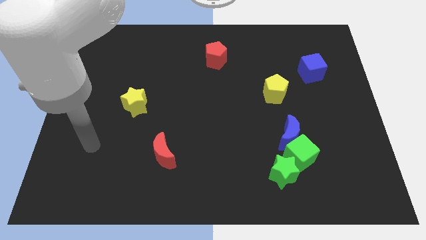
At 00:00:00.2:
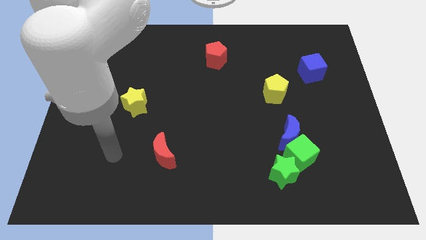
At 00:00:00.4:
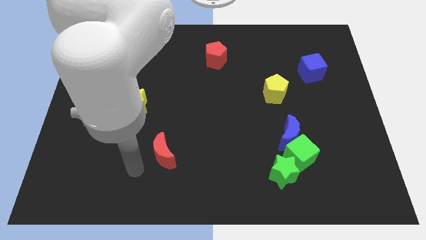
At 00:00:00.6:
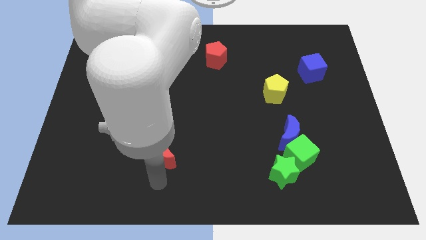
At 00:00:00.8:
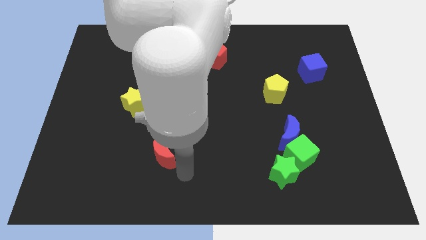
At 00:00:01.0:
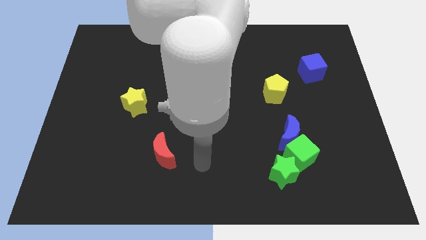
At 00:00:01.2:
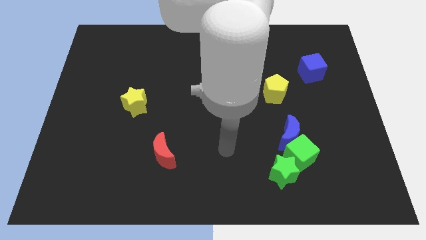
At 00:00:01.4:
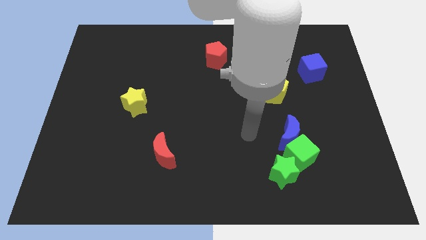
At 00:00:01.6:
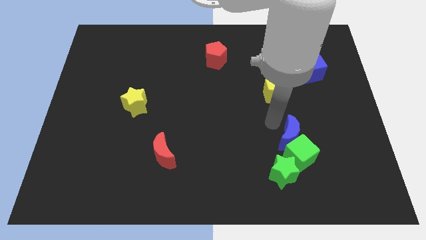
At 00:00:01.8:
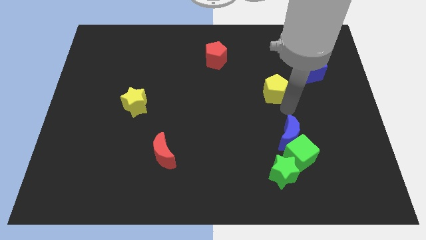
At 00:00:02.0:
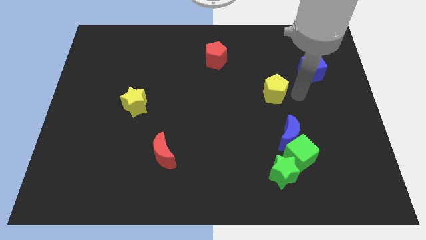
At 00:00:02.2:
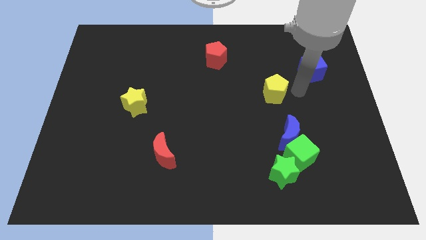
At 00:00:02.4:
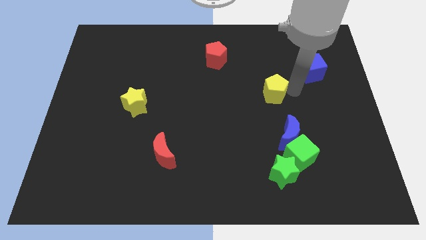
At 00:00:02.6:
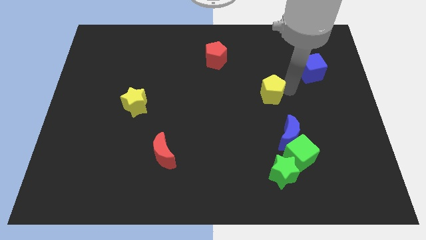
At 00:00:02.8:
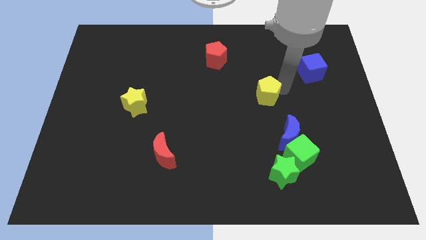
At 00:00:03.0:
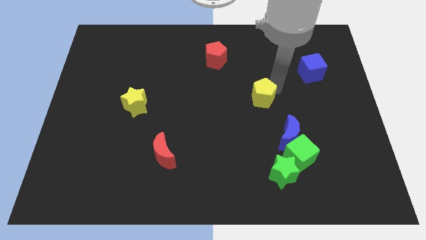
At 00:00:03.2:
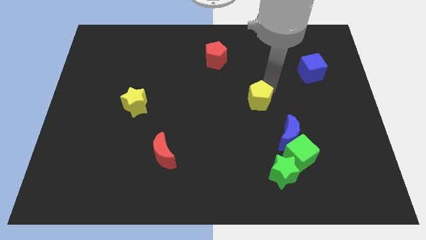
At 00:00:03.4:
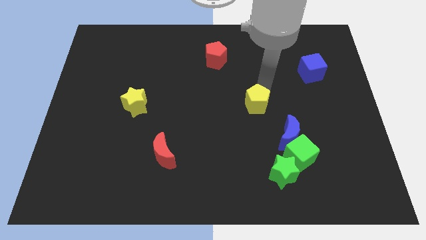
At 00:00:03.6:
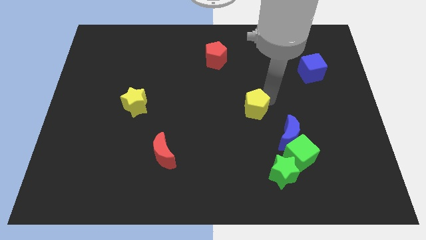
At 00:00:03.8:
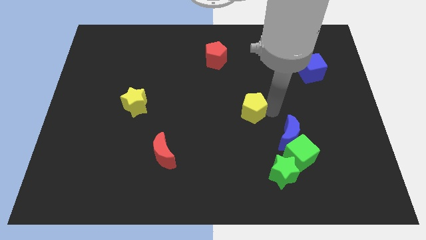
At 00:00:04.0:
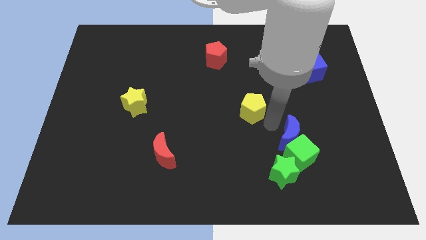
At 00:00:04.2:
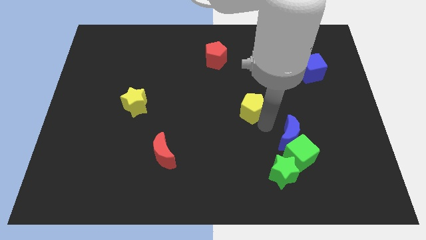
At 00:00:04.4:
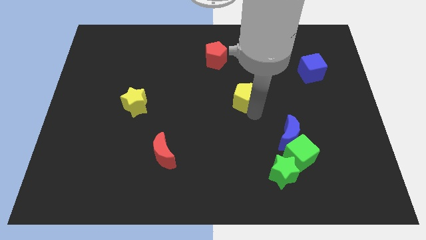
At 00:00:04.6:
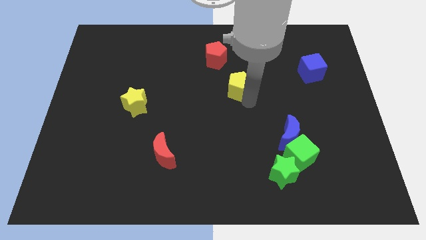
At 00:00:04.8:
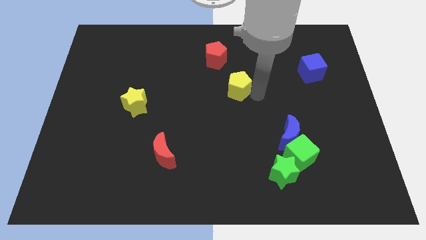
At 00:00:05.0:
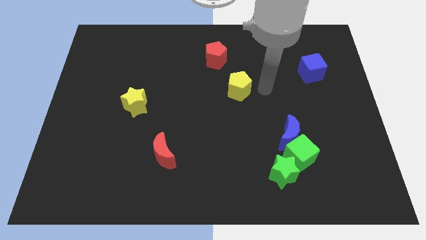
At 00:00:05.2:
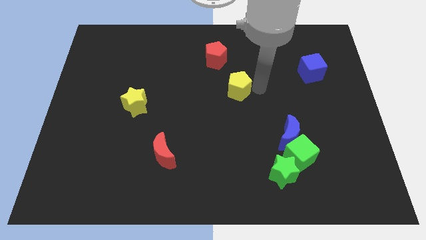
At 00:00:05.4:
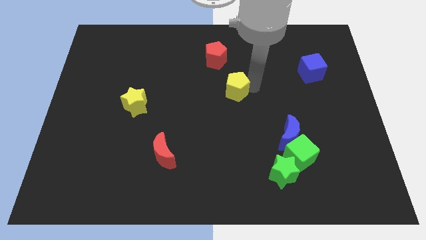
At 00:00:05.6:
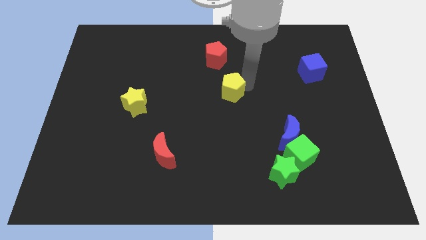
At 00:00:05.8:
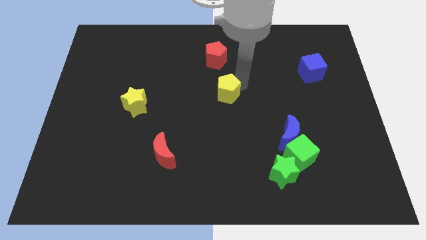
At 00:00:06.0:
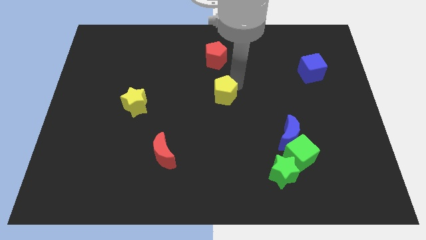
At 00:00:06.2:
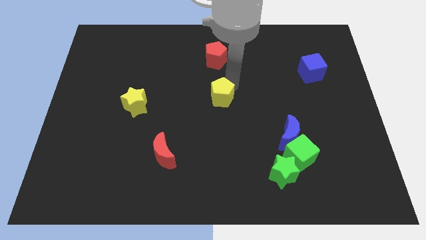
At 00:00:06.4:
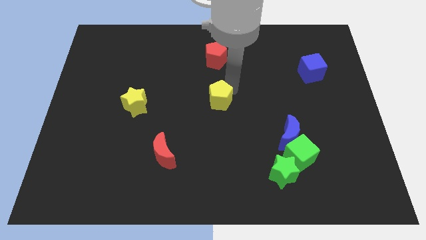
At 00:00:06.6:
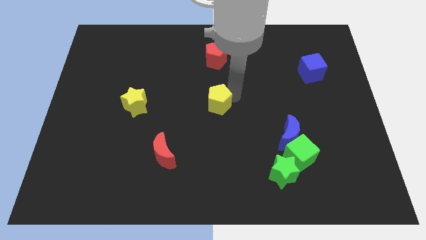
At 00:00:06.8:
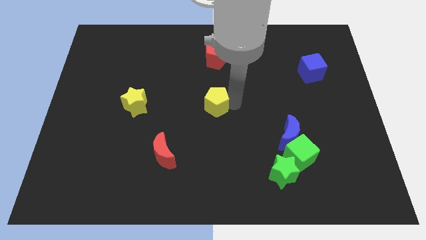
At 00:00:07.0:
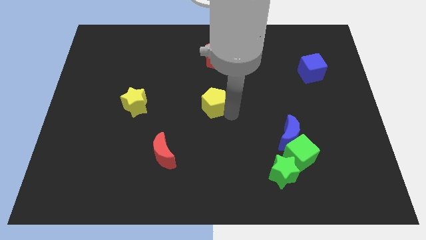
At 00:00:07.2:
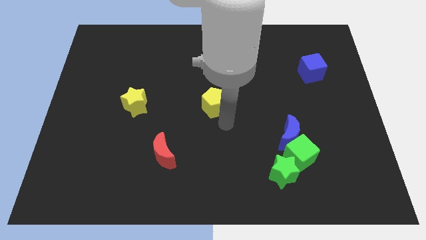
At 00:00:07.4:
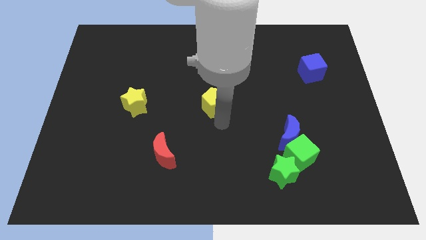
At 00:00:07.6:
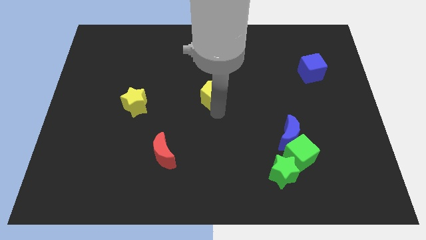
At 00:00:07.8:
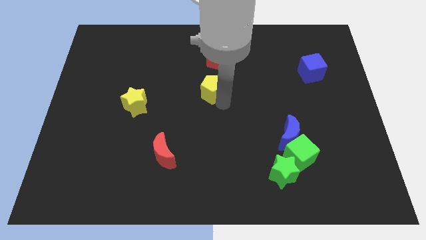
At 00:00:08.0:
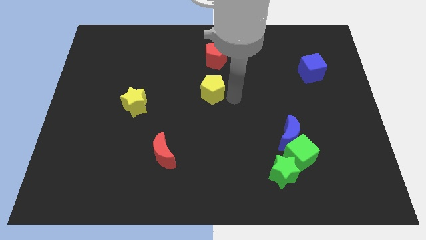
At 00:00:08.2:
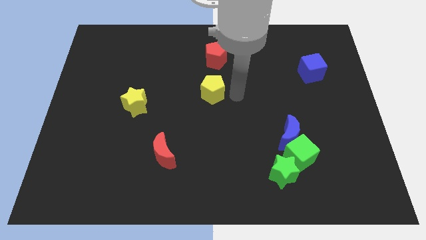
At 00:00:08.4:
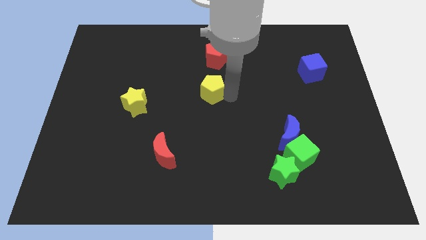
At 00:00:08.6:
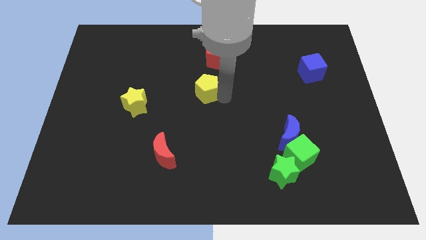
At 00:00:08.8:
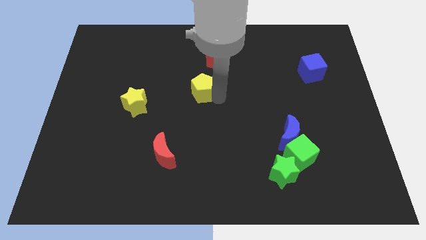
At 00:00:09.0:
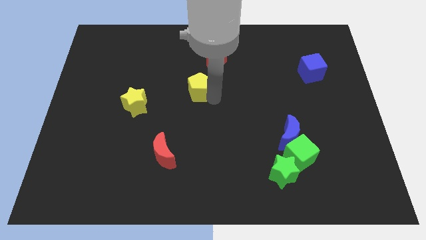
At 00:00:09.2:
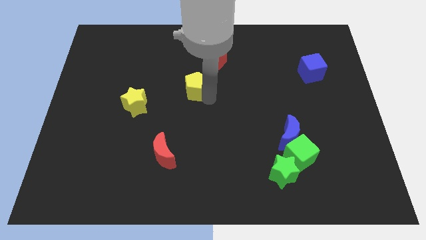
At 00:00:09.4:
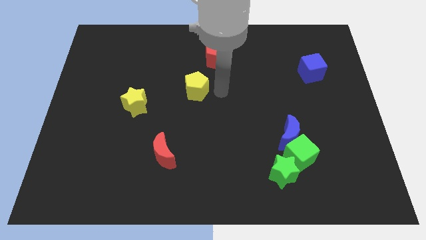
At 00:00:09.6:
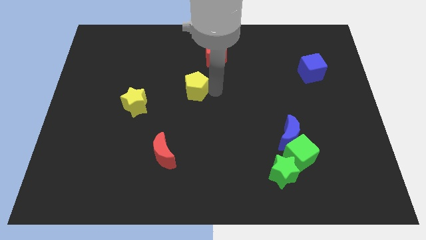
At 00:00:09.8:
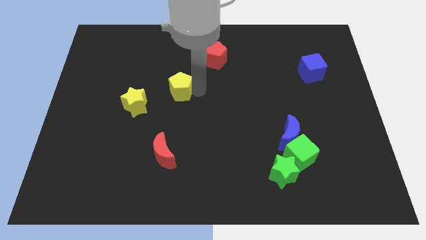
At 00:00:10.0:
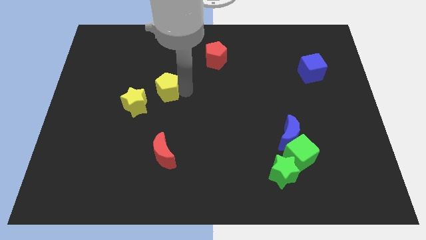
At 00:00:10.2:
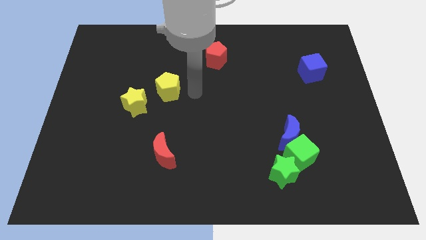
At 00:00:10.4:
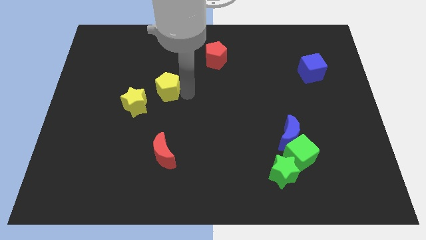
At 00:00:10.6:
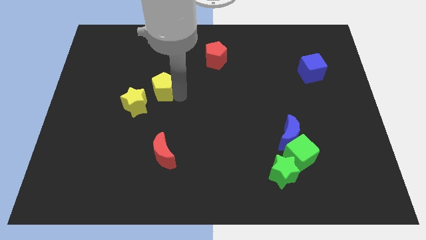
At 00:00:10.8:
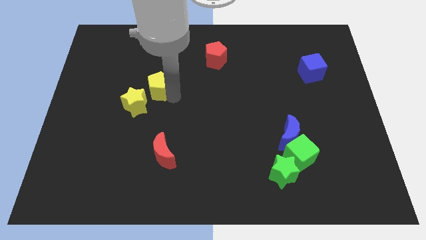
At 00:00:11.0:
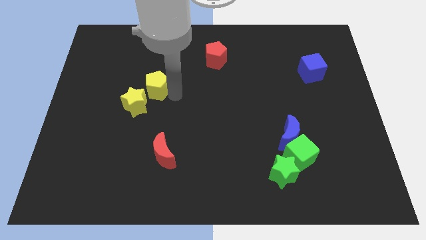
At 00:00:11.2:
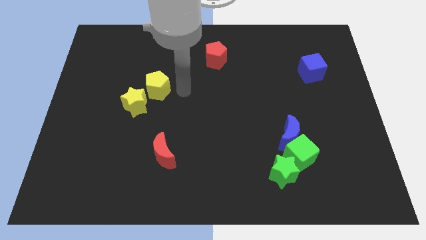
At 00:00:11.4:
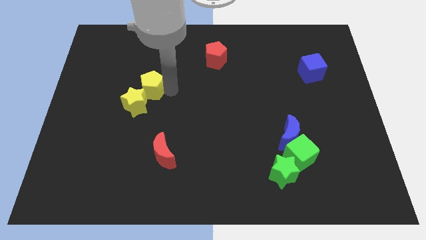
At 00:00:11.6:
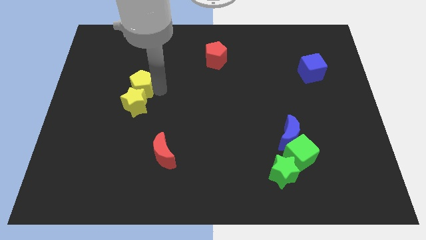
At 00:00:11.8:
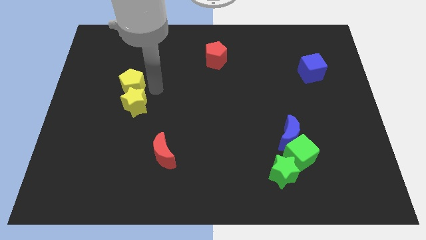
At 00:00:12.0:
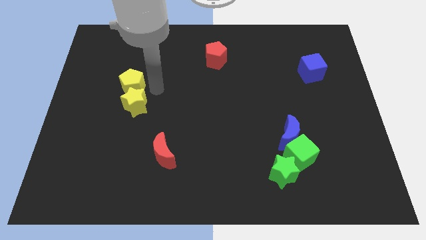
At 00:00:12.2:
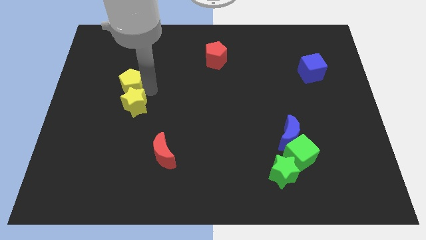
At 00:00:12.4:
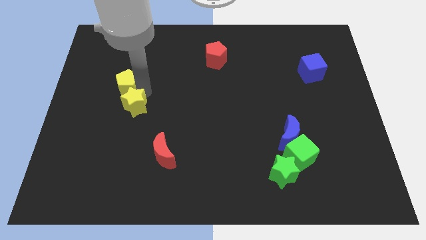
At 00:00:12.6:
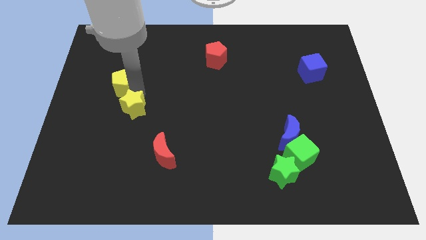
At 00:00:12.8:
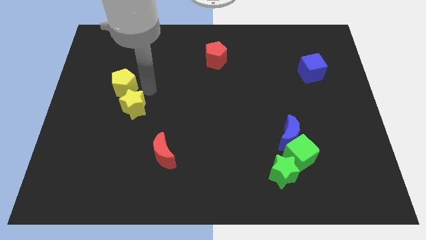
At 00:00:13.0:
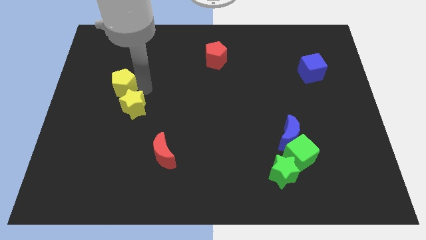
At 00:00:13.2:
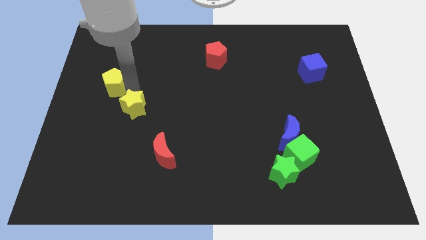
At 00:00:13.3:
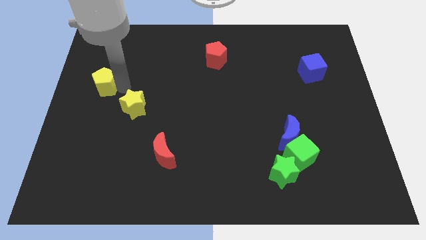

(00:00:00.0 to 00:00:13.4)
put the yellow pentagon to the left side of the board

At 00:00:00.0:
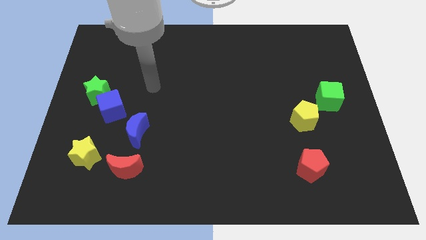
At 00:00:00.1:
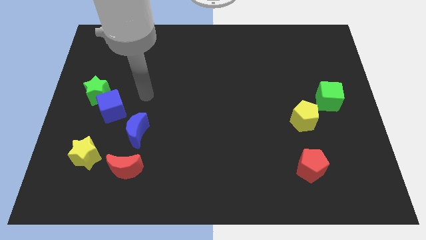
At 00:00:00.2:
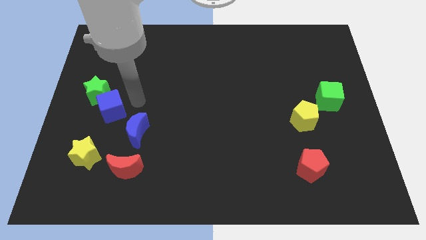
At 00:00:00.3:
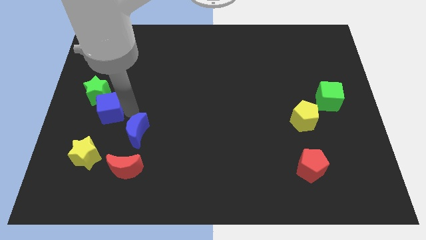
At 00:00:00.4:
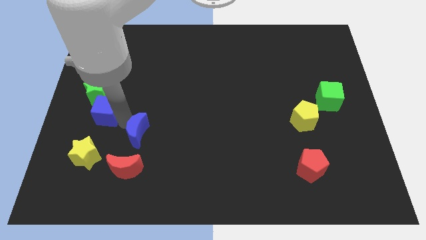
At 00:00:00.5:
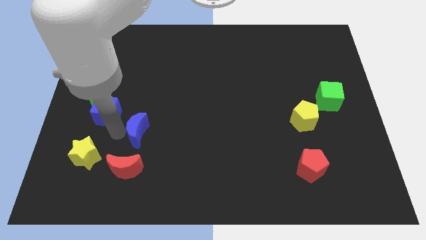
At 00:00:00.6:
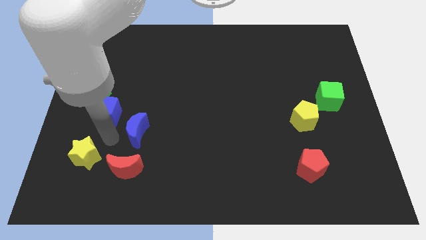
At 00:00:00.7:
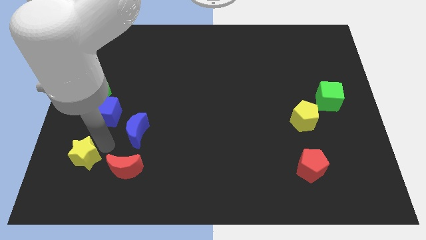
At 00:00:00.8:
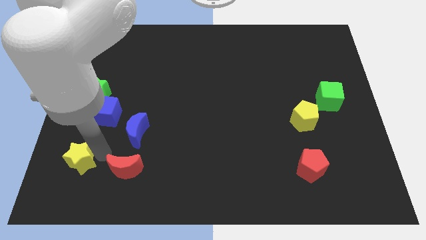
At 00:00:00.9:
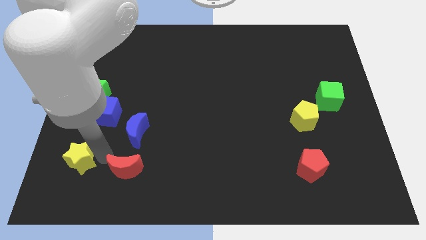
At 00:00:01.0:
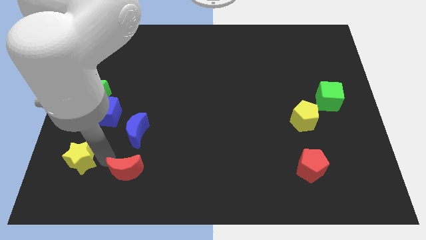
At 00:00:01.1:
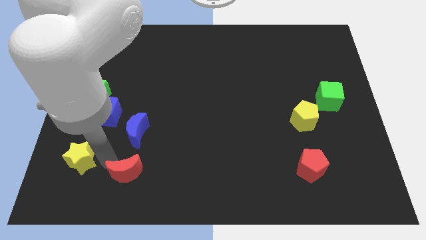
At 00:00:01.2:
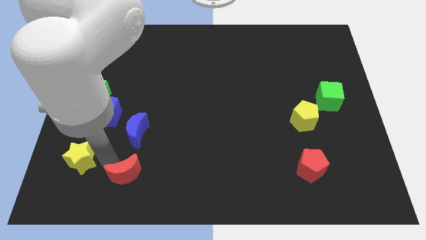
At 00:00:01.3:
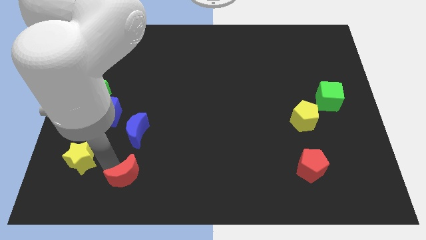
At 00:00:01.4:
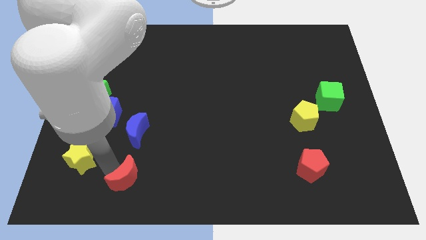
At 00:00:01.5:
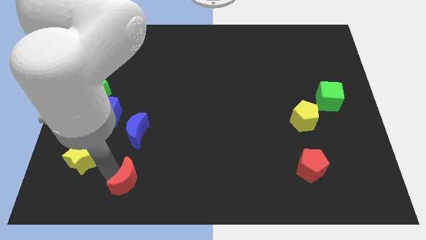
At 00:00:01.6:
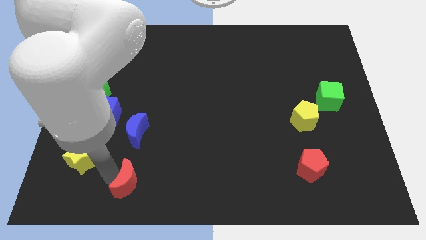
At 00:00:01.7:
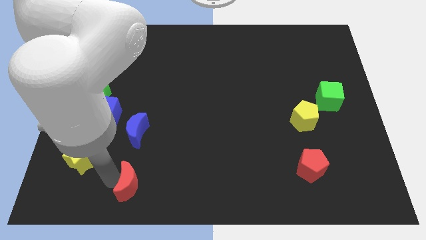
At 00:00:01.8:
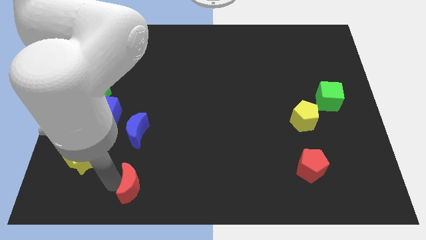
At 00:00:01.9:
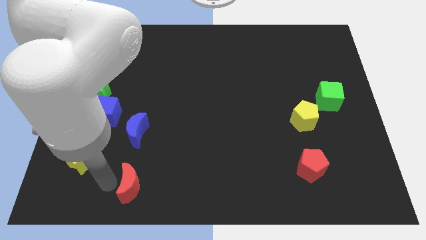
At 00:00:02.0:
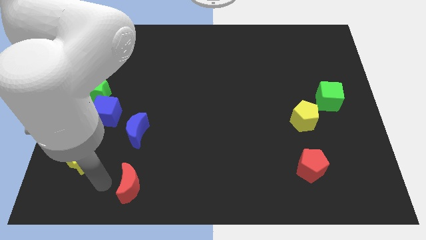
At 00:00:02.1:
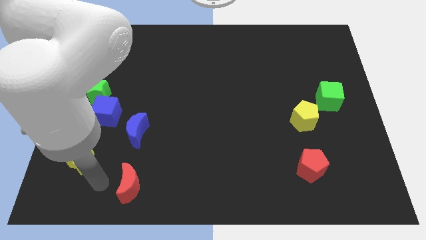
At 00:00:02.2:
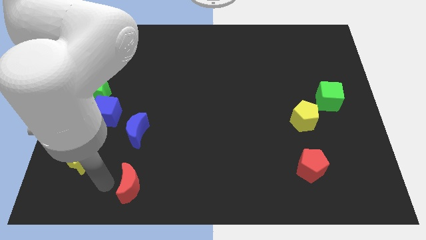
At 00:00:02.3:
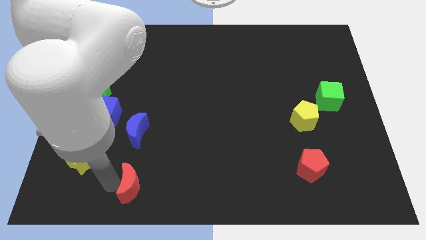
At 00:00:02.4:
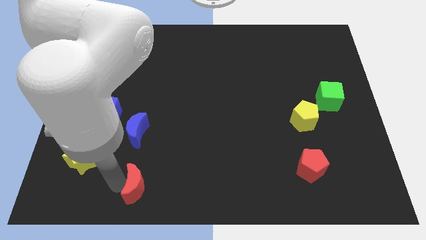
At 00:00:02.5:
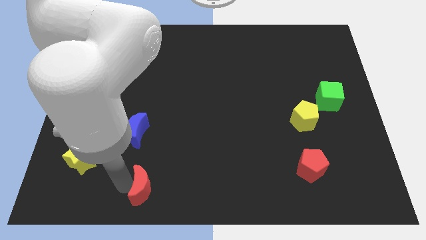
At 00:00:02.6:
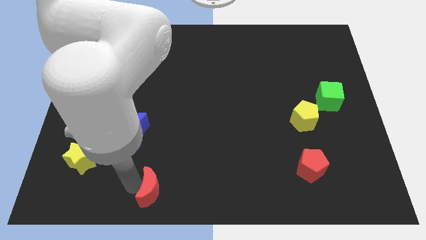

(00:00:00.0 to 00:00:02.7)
put the red moon to the bottom
